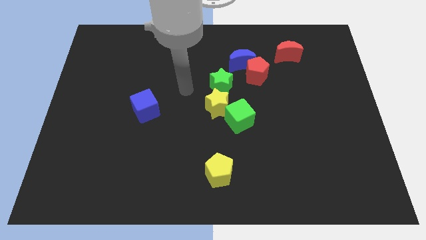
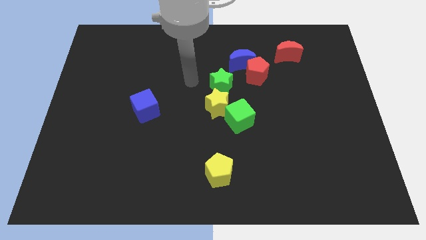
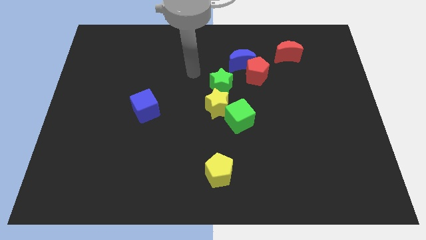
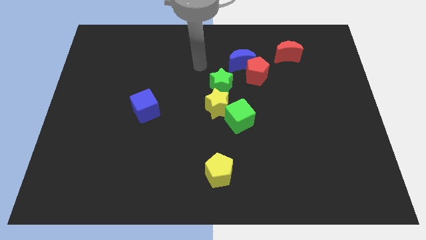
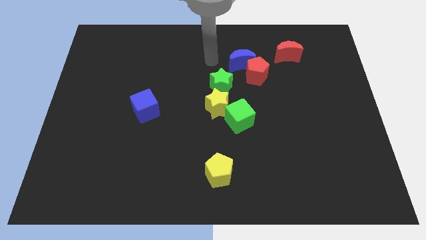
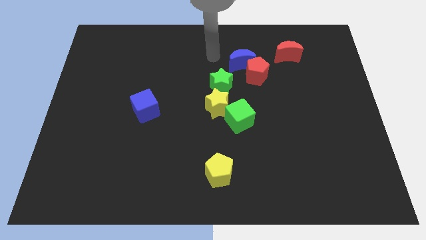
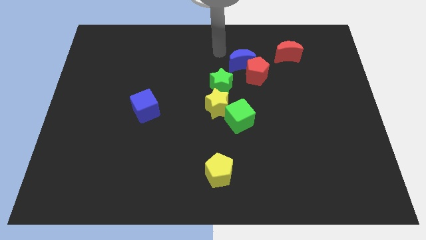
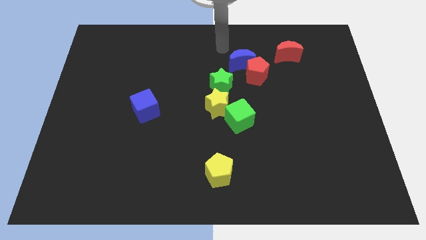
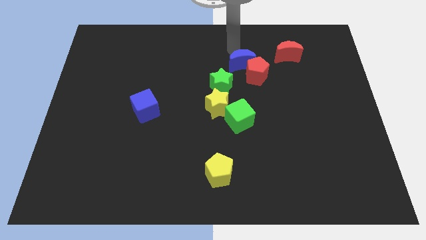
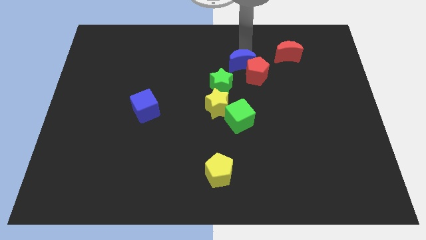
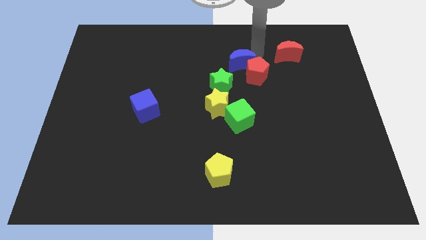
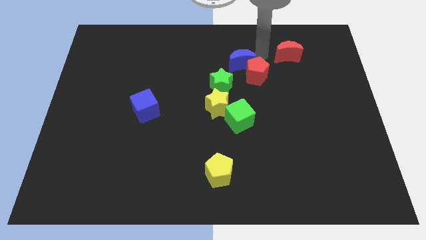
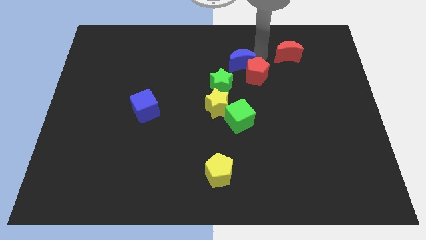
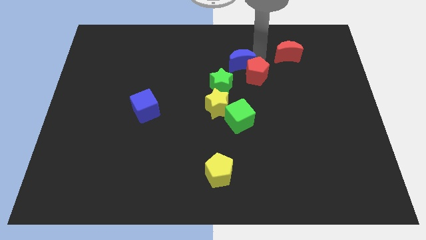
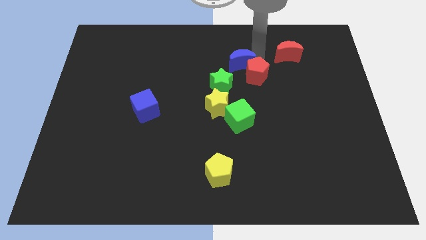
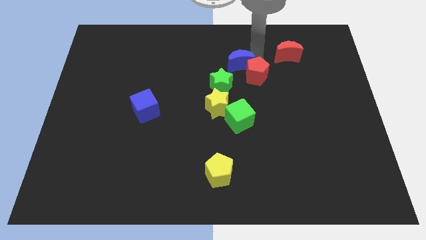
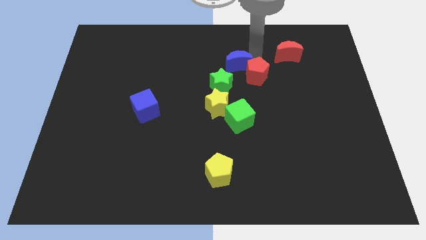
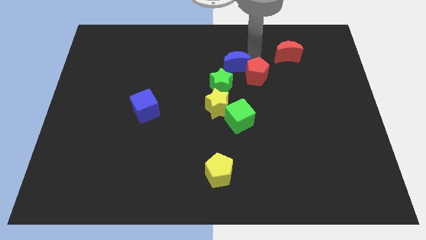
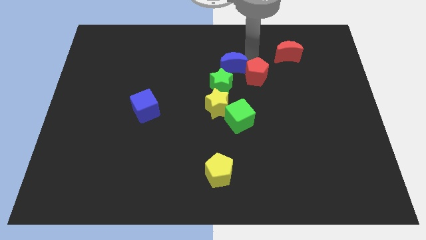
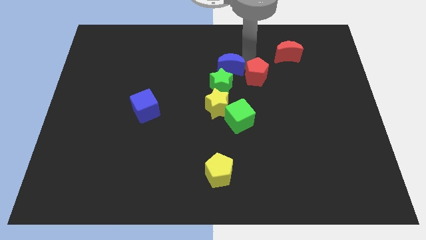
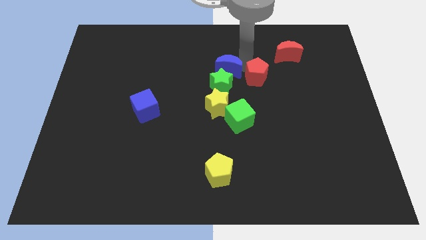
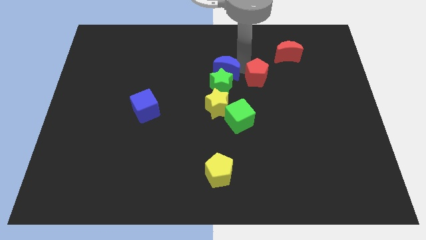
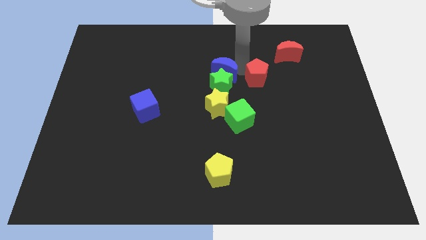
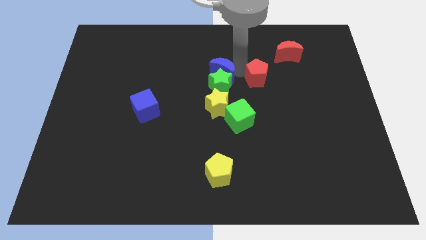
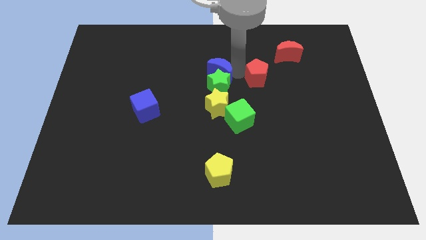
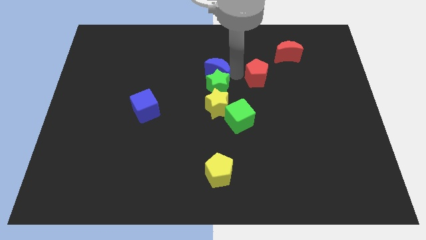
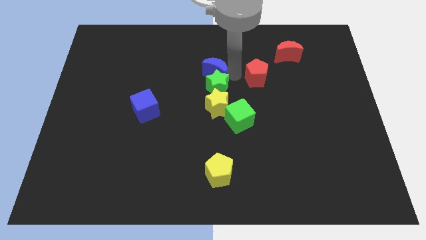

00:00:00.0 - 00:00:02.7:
push the blue moon diagonally down and left slightly

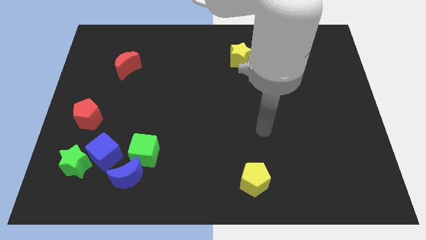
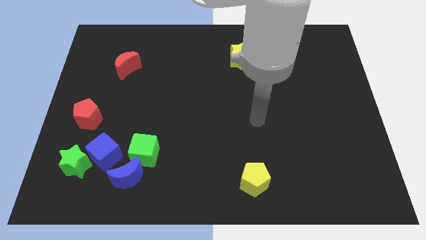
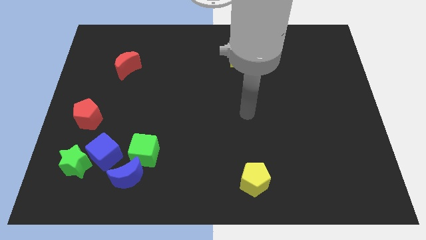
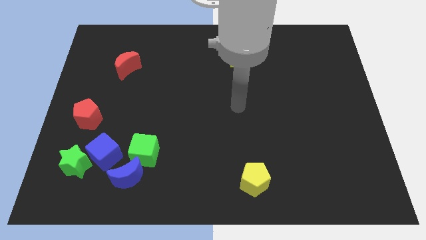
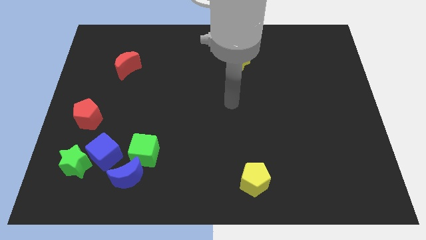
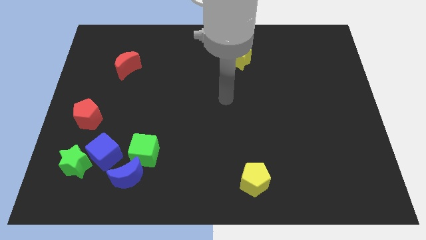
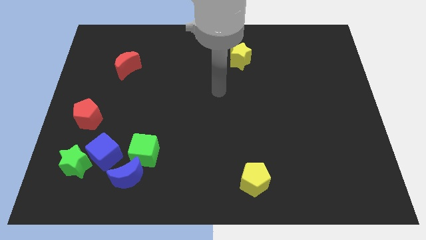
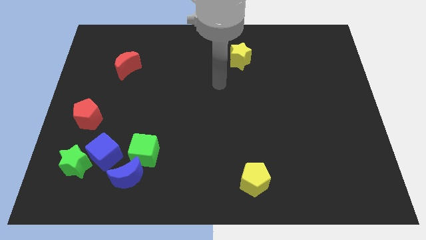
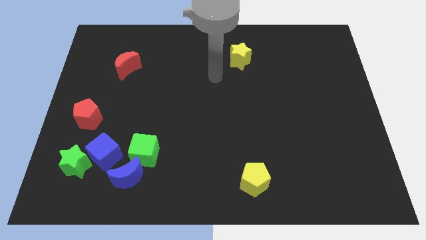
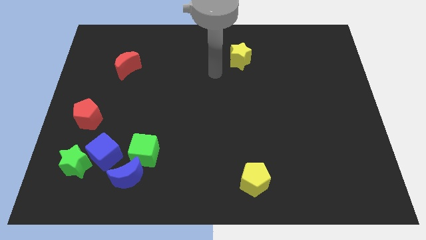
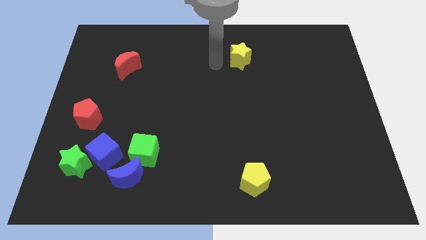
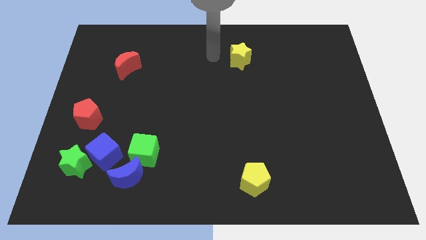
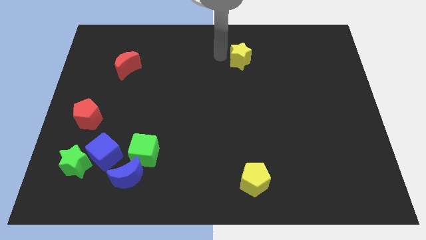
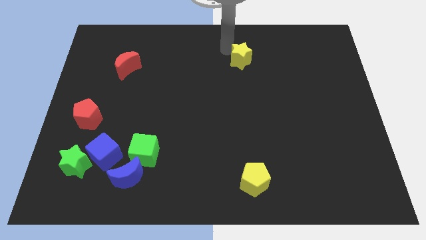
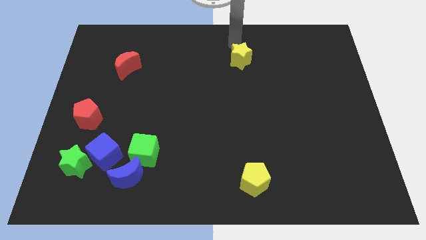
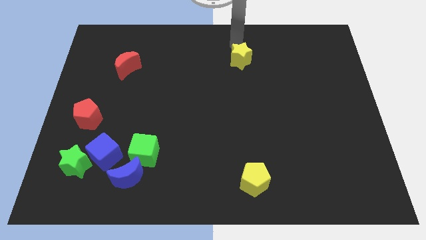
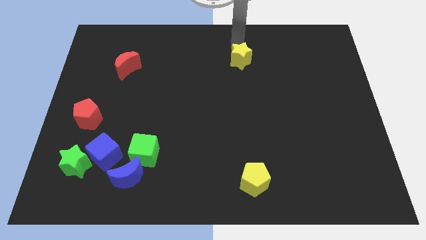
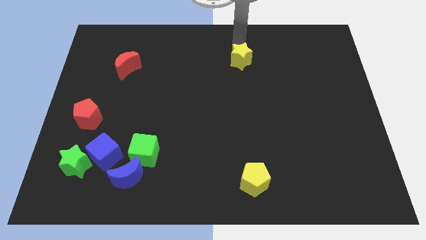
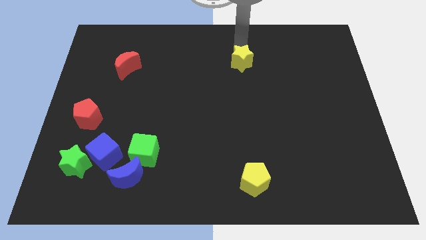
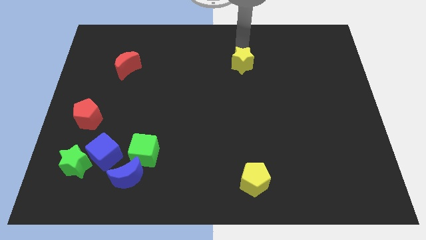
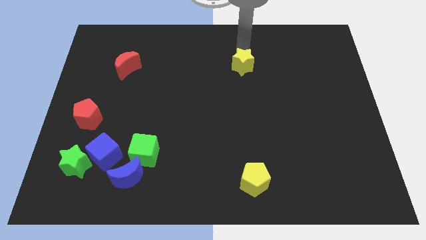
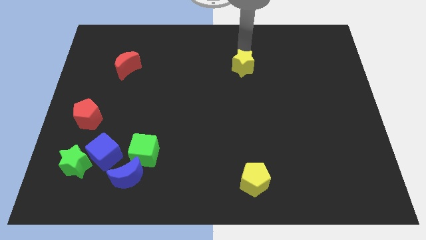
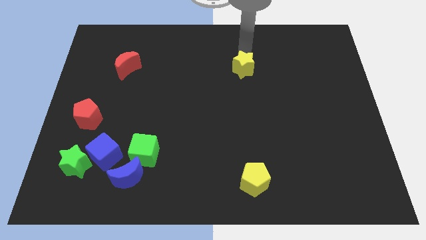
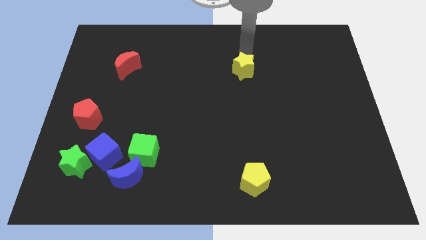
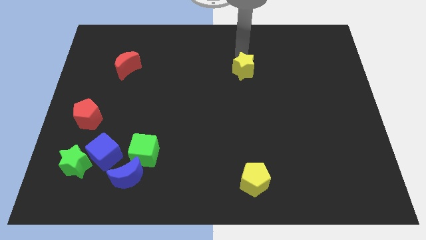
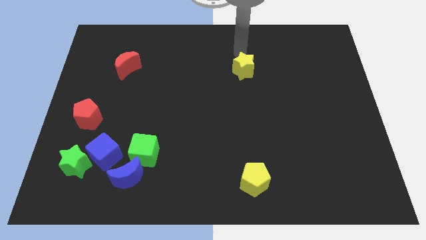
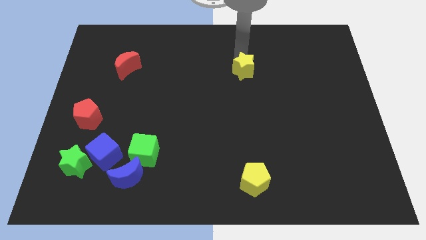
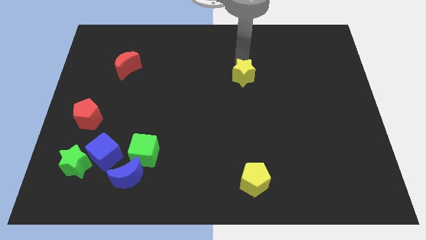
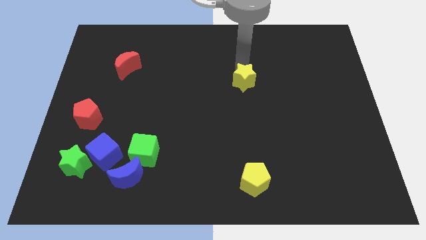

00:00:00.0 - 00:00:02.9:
slightly move the yellow star downwards

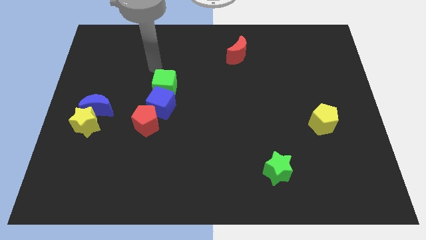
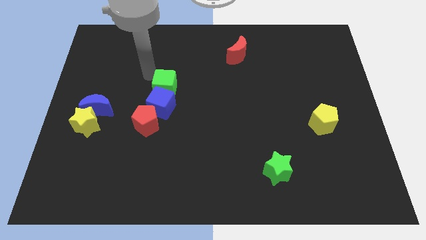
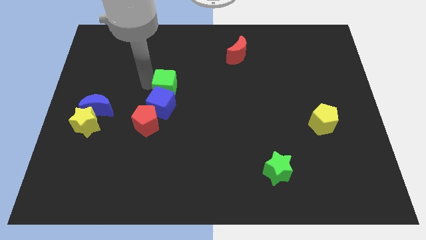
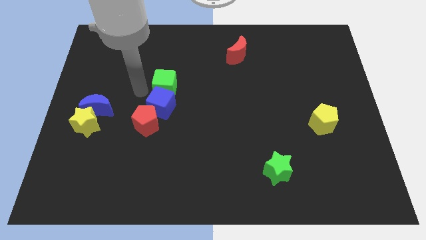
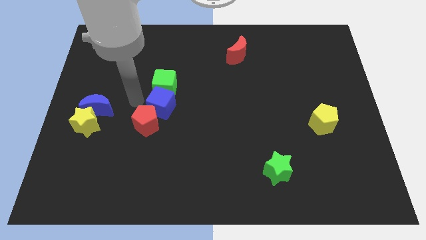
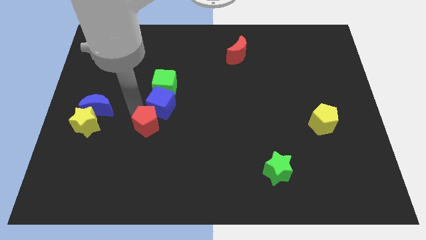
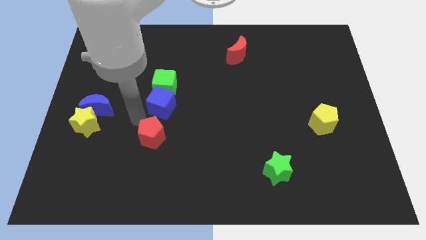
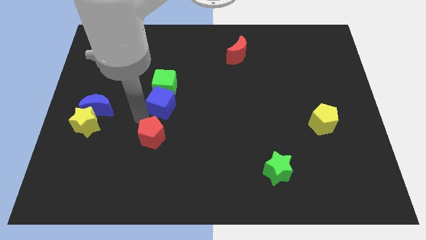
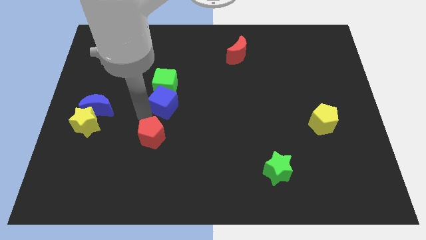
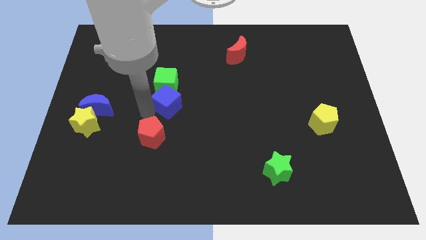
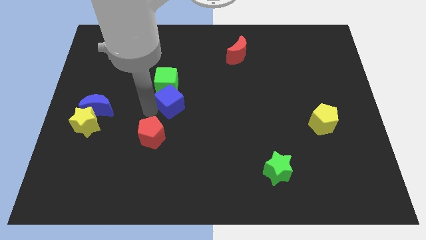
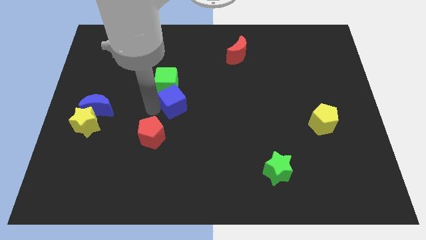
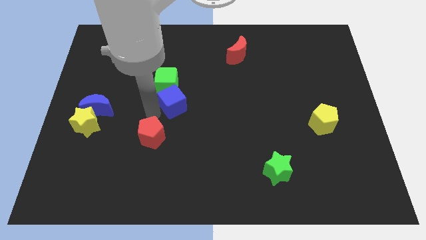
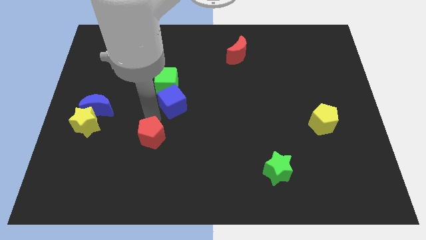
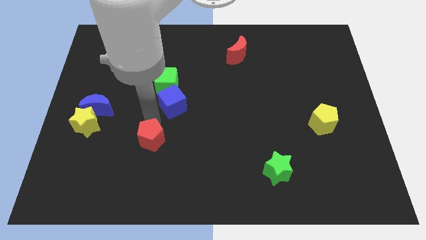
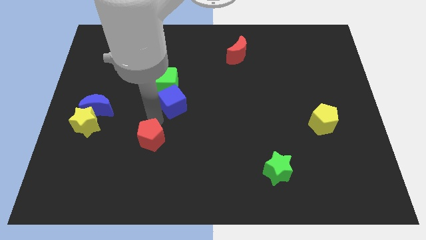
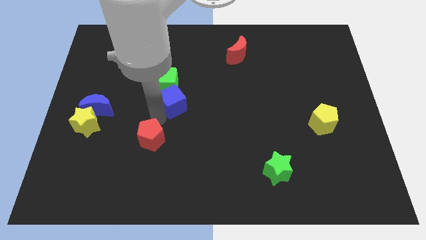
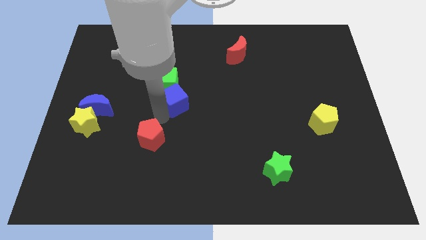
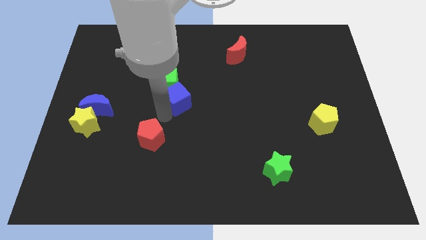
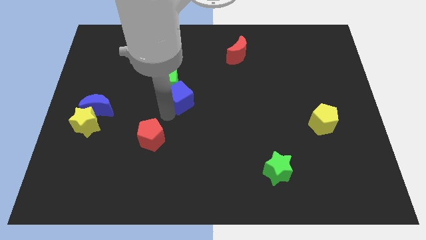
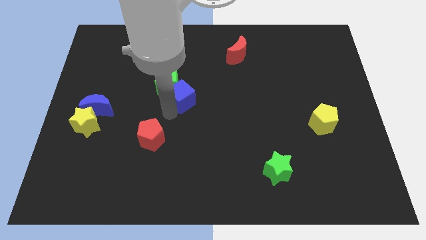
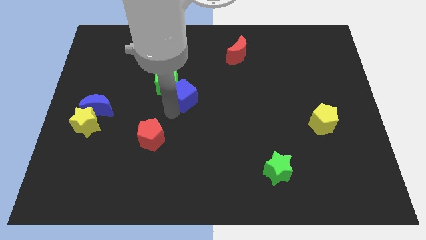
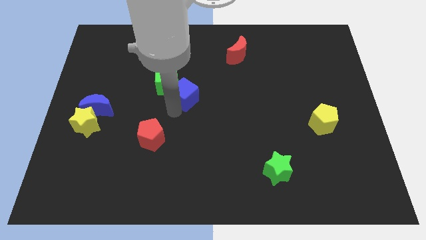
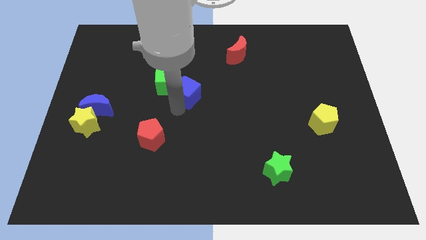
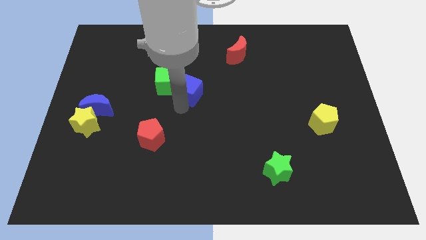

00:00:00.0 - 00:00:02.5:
push the blue cube slightly up and then to the right
